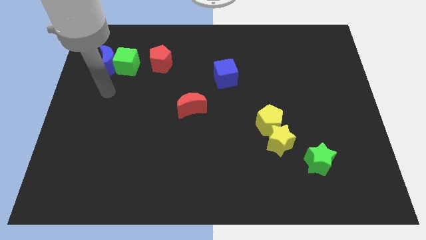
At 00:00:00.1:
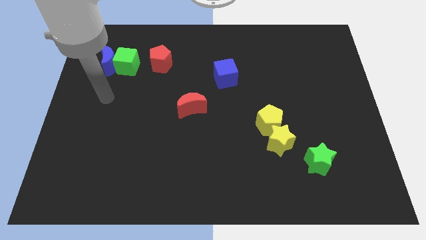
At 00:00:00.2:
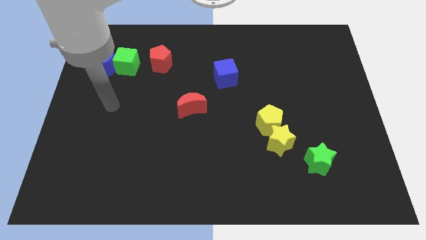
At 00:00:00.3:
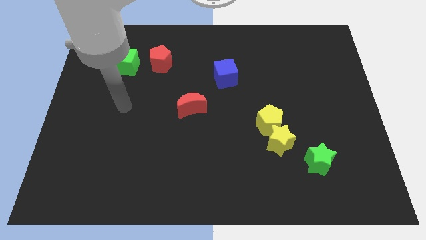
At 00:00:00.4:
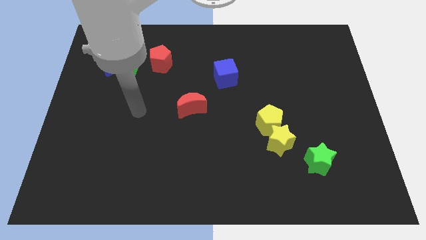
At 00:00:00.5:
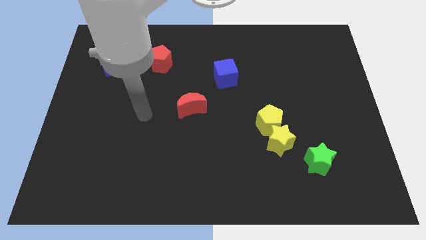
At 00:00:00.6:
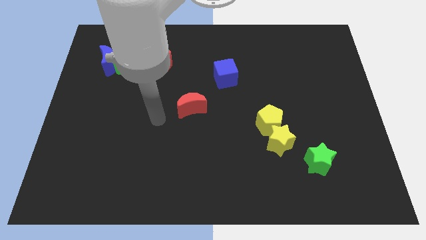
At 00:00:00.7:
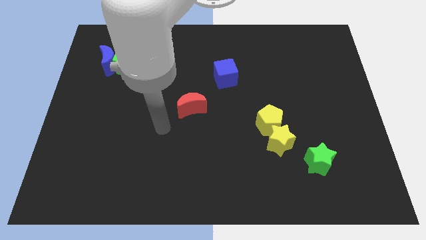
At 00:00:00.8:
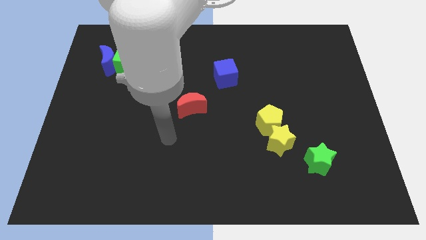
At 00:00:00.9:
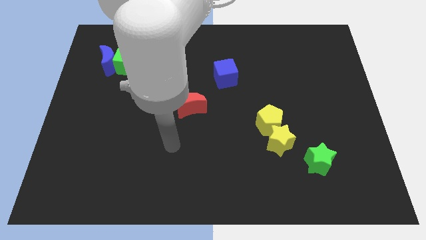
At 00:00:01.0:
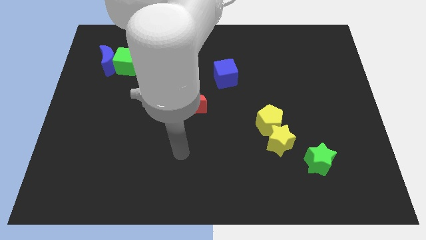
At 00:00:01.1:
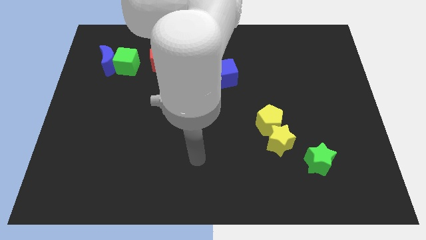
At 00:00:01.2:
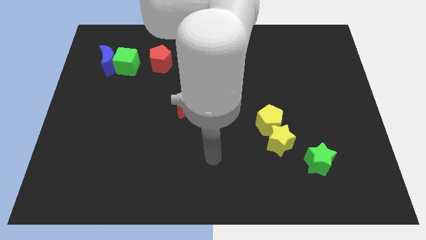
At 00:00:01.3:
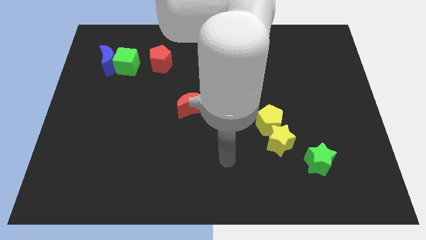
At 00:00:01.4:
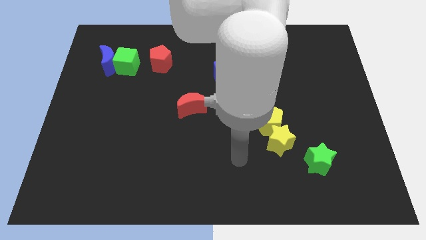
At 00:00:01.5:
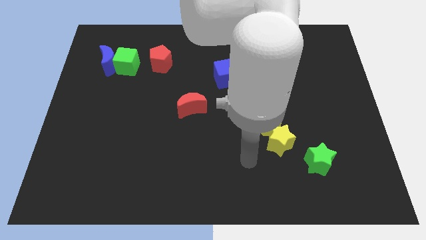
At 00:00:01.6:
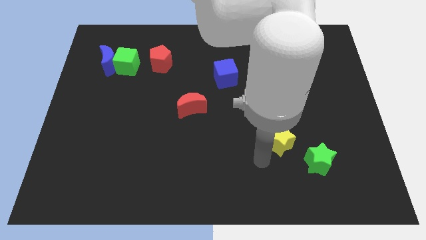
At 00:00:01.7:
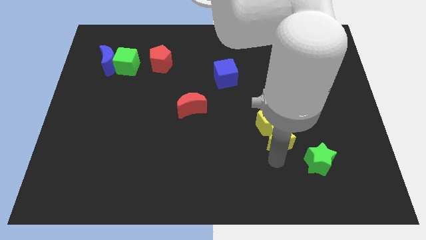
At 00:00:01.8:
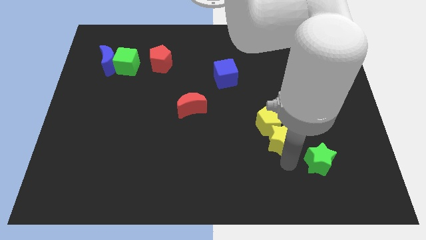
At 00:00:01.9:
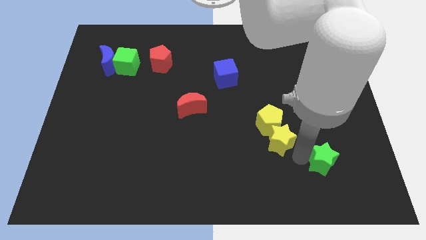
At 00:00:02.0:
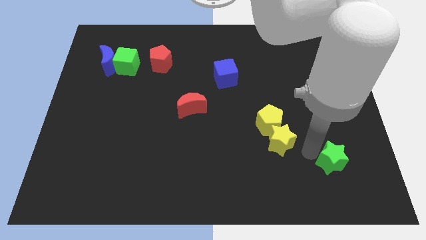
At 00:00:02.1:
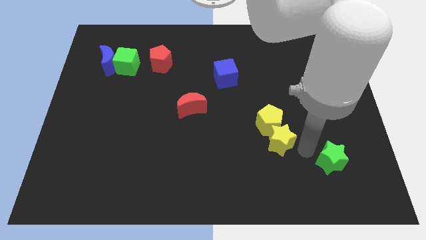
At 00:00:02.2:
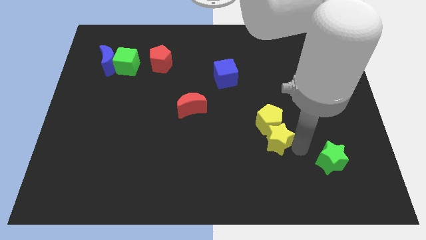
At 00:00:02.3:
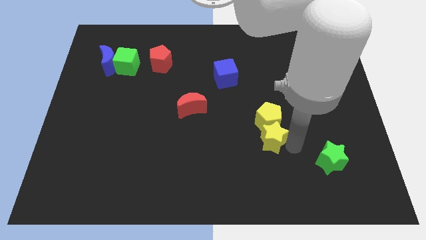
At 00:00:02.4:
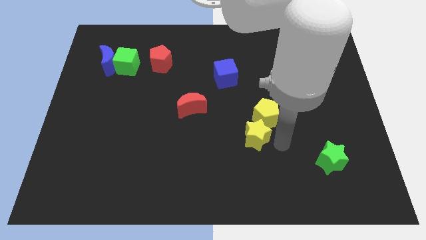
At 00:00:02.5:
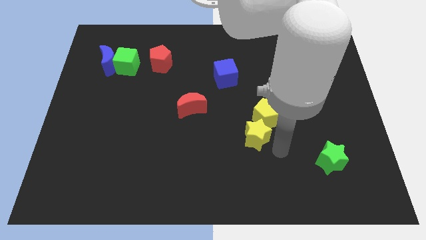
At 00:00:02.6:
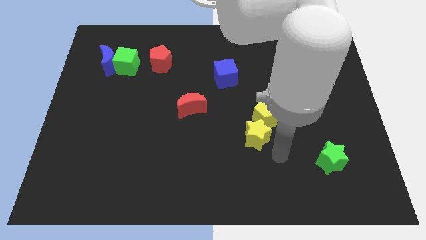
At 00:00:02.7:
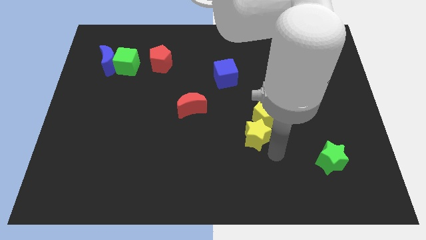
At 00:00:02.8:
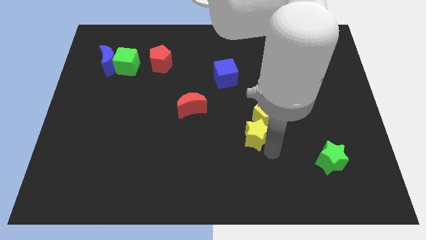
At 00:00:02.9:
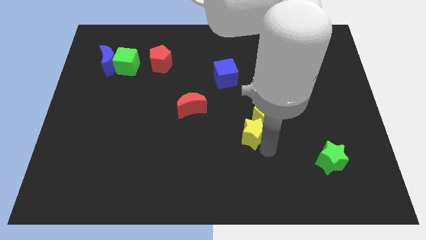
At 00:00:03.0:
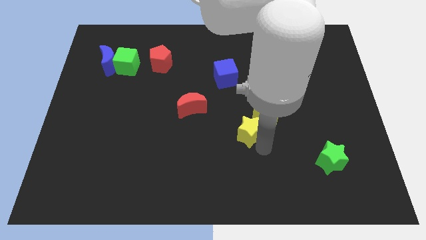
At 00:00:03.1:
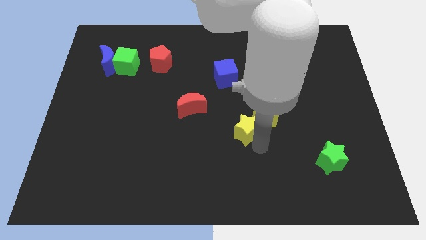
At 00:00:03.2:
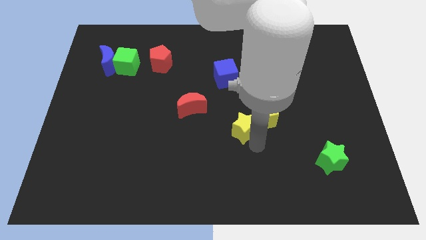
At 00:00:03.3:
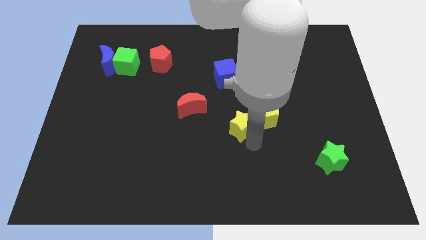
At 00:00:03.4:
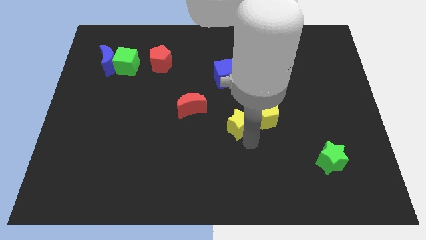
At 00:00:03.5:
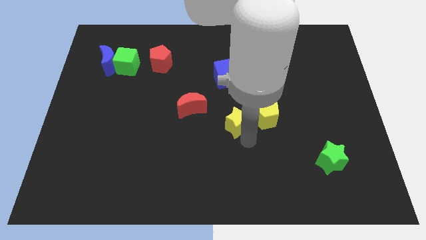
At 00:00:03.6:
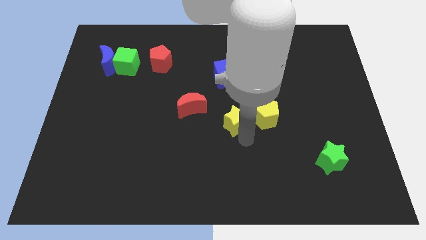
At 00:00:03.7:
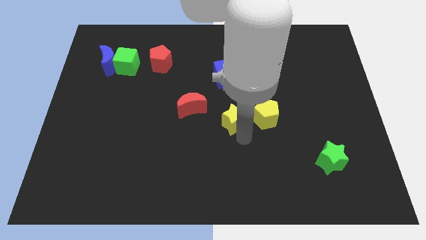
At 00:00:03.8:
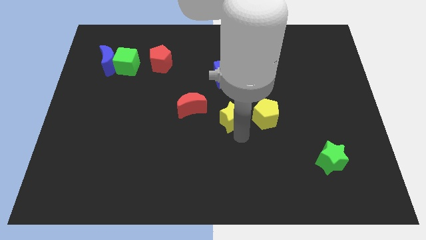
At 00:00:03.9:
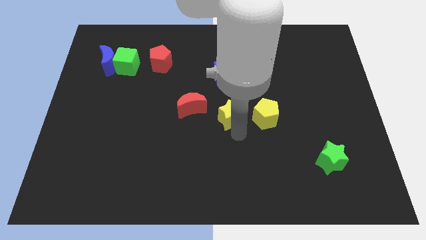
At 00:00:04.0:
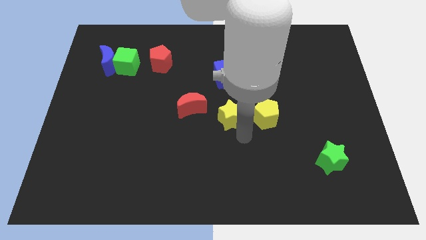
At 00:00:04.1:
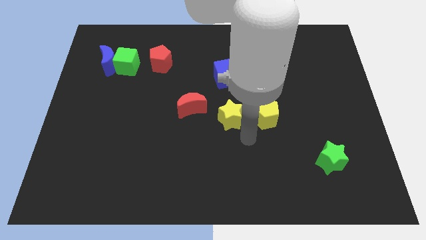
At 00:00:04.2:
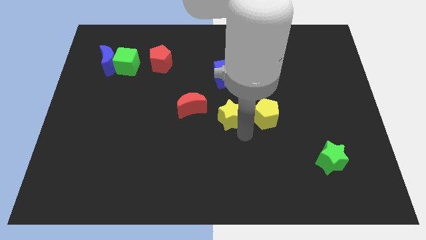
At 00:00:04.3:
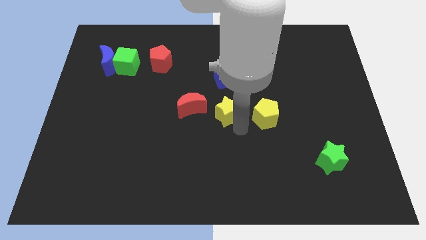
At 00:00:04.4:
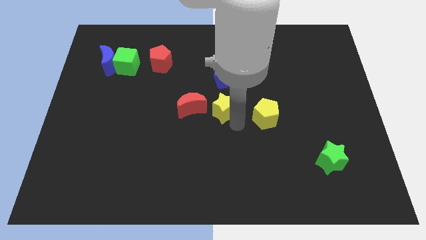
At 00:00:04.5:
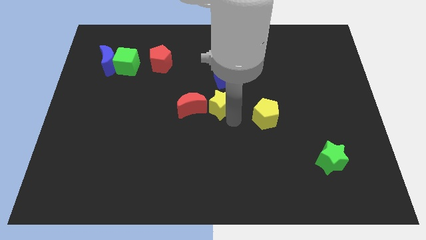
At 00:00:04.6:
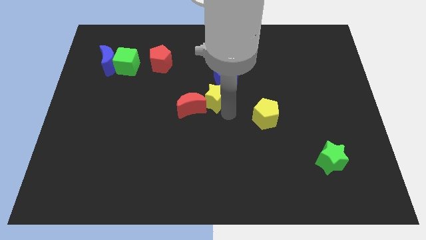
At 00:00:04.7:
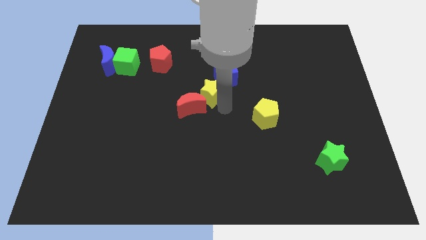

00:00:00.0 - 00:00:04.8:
push the yellow star diagonally up and to the left

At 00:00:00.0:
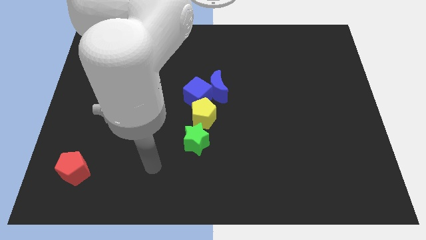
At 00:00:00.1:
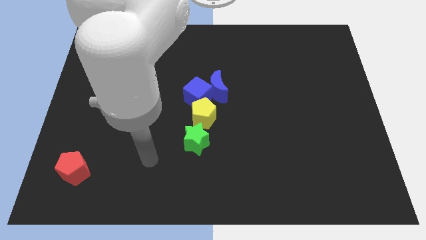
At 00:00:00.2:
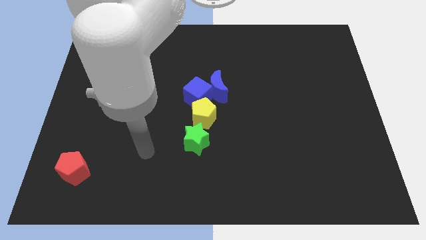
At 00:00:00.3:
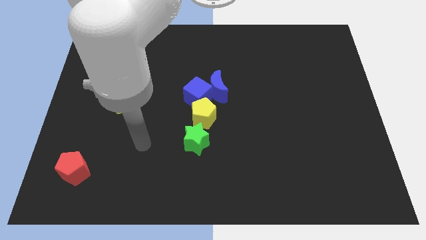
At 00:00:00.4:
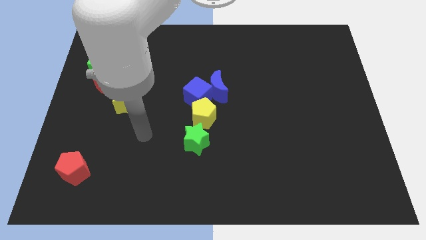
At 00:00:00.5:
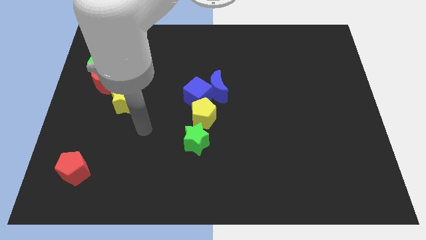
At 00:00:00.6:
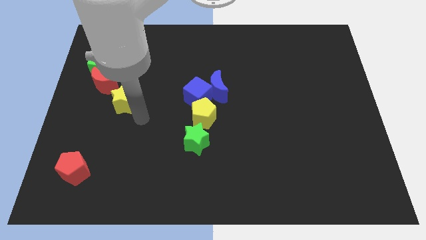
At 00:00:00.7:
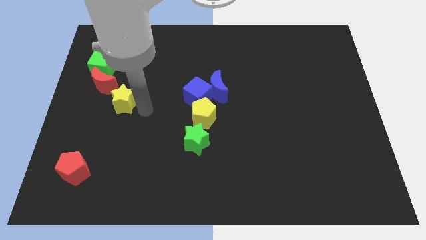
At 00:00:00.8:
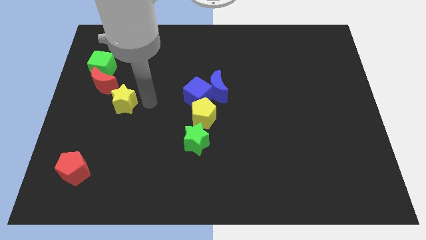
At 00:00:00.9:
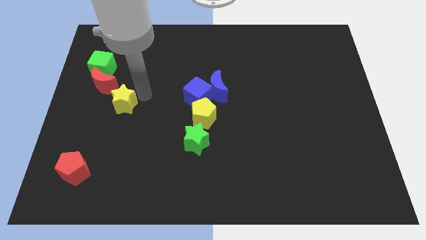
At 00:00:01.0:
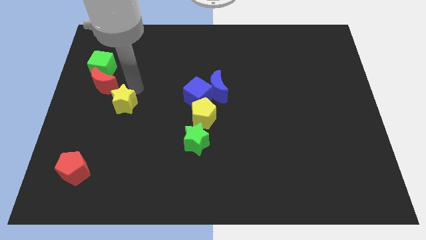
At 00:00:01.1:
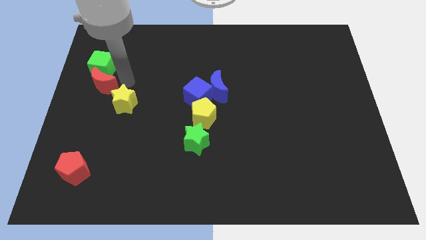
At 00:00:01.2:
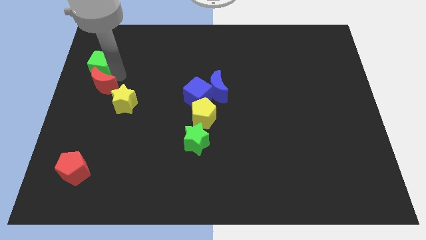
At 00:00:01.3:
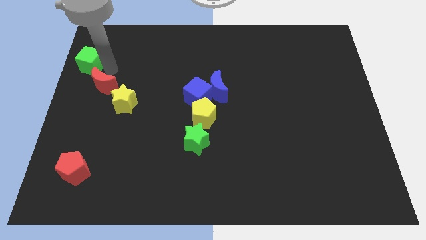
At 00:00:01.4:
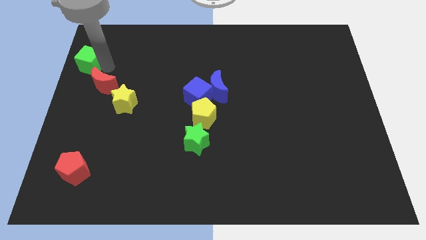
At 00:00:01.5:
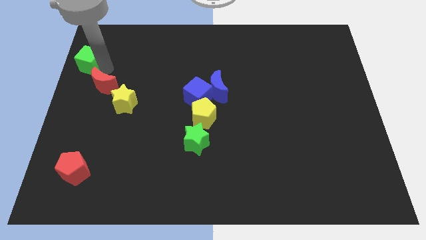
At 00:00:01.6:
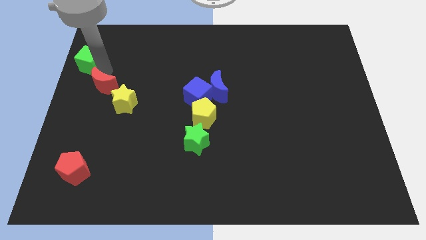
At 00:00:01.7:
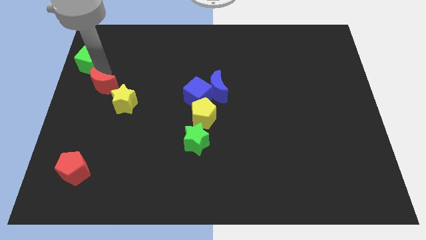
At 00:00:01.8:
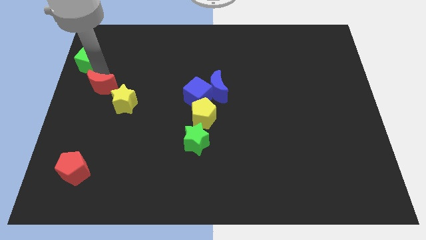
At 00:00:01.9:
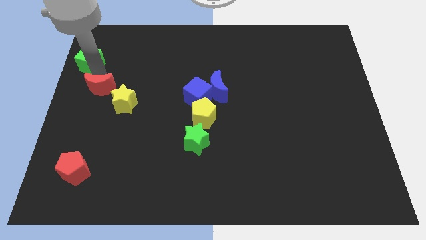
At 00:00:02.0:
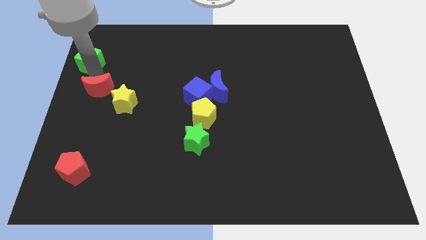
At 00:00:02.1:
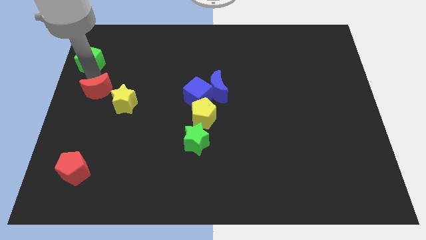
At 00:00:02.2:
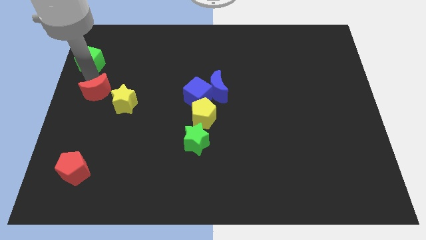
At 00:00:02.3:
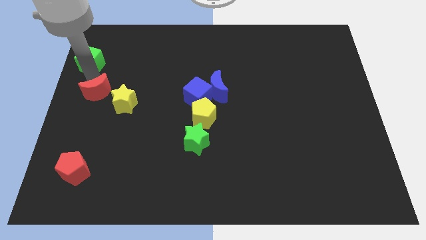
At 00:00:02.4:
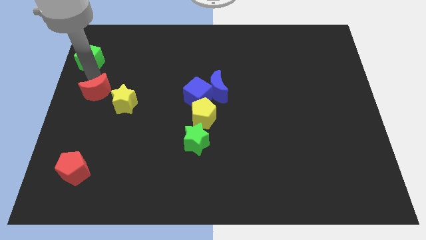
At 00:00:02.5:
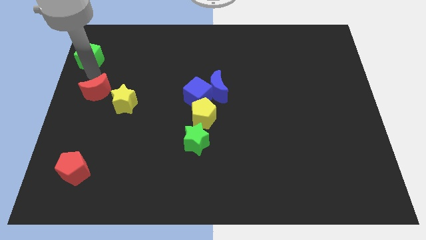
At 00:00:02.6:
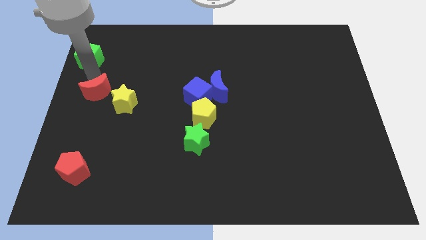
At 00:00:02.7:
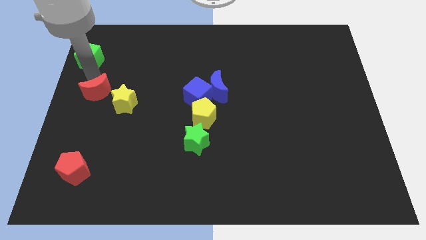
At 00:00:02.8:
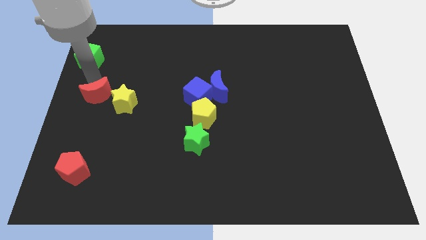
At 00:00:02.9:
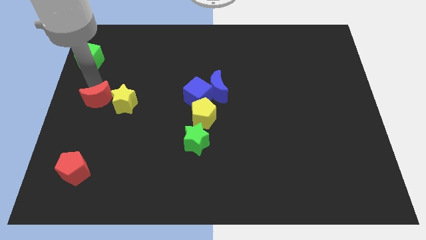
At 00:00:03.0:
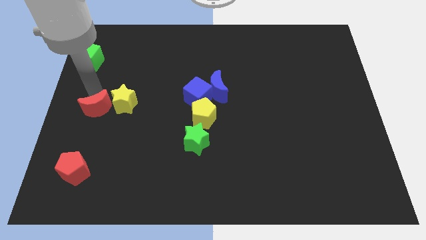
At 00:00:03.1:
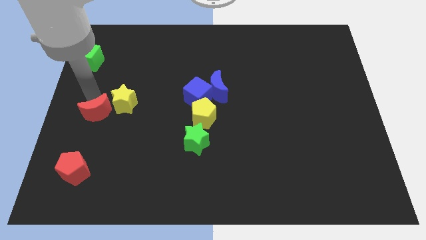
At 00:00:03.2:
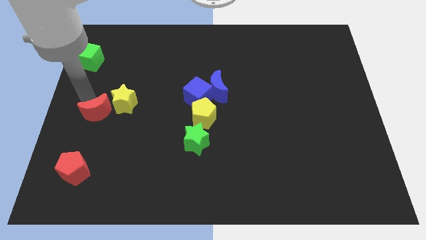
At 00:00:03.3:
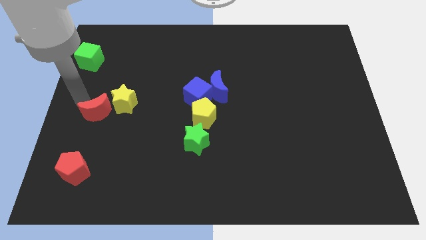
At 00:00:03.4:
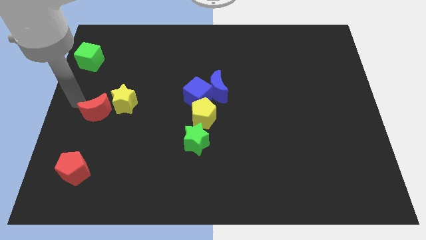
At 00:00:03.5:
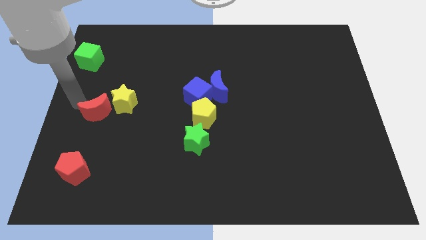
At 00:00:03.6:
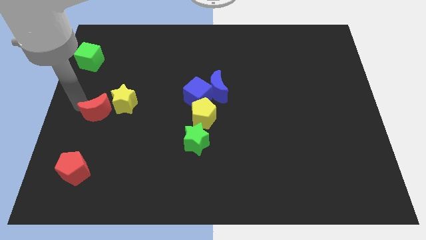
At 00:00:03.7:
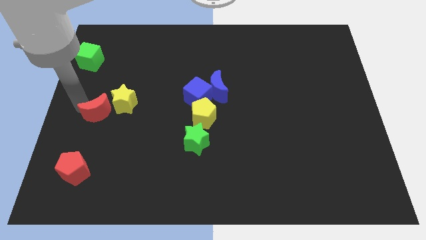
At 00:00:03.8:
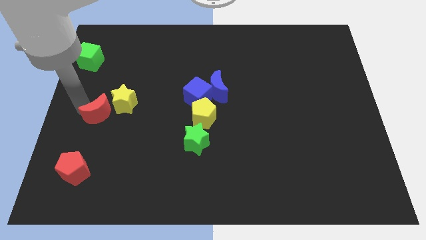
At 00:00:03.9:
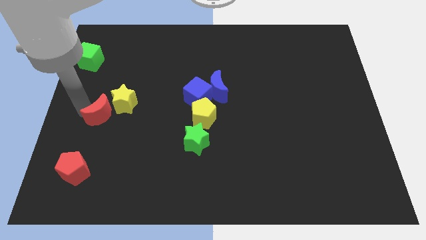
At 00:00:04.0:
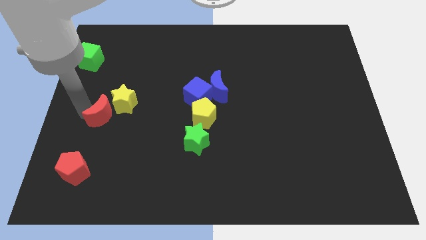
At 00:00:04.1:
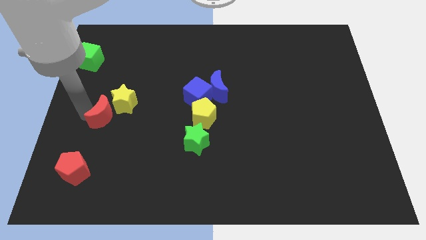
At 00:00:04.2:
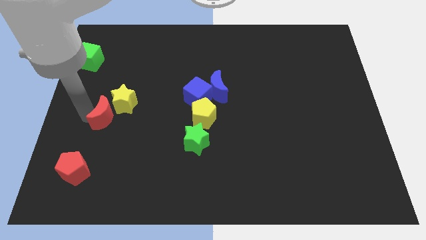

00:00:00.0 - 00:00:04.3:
push the red moon a little bit down and right diagonally
